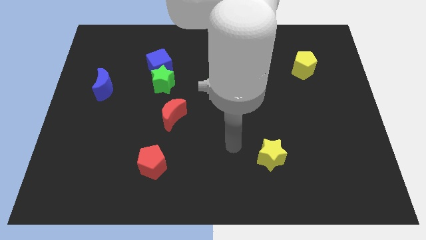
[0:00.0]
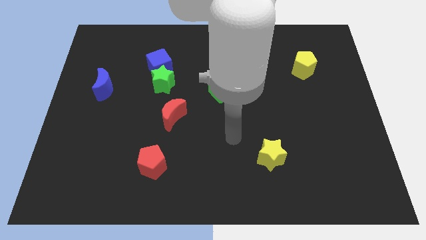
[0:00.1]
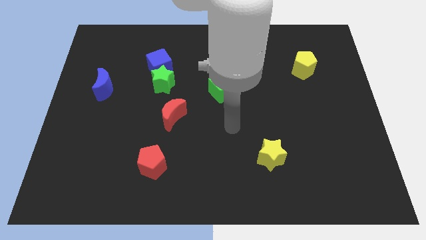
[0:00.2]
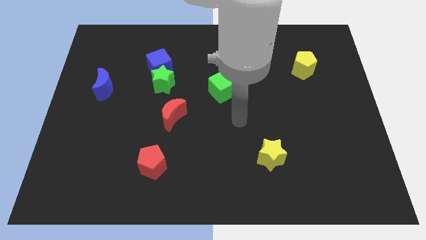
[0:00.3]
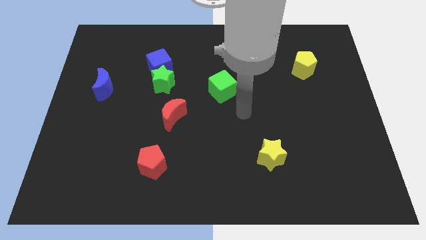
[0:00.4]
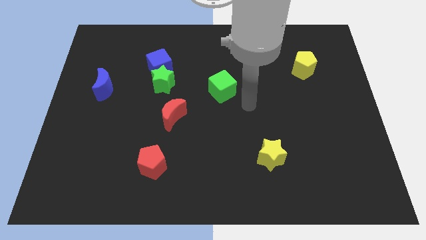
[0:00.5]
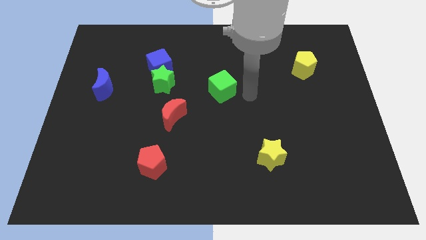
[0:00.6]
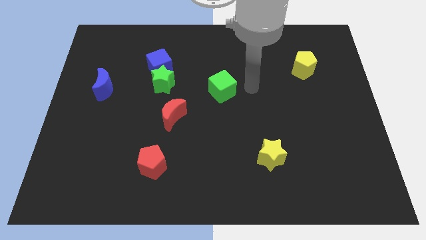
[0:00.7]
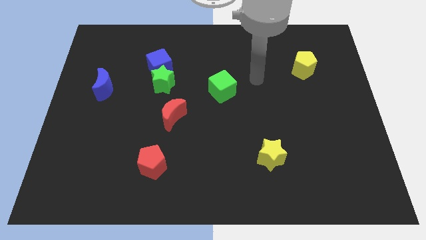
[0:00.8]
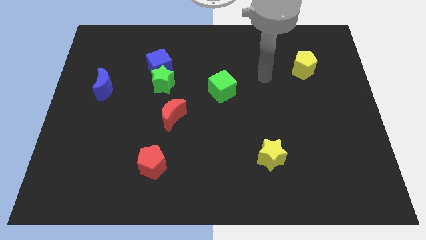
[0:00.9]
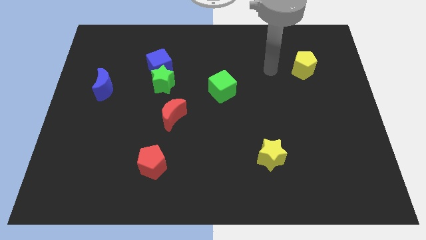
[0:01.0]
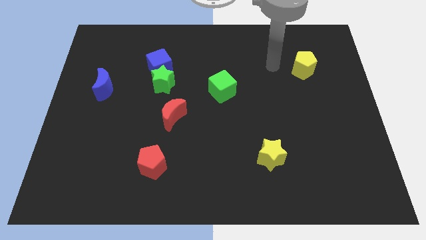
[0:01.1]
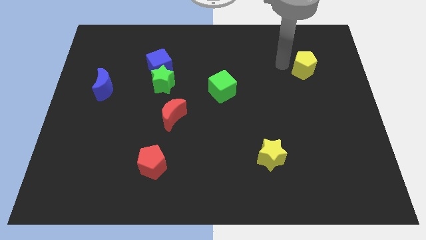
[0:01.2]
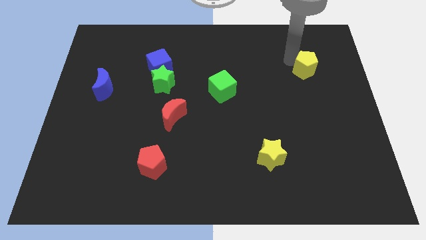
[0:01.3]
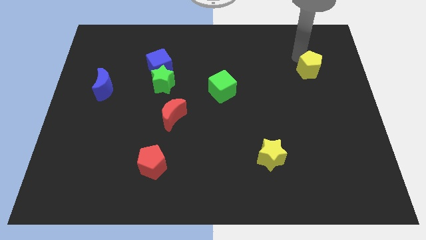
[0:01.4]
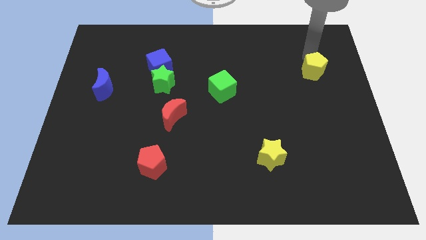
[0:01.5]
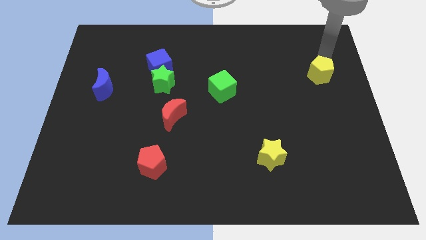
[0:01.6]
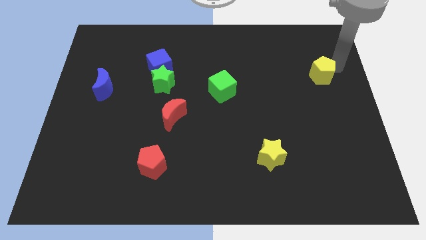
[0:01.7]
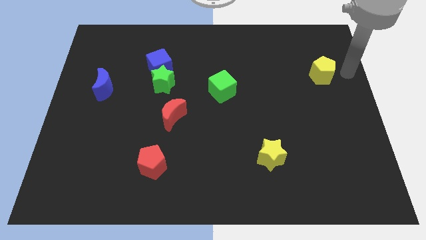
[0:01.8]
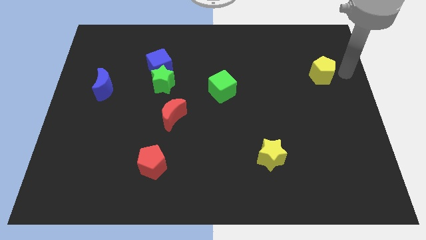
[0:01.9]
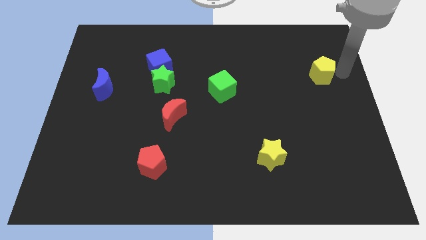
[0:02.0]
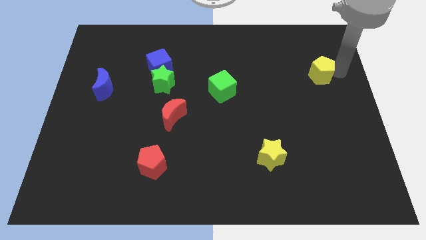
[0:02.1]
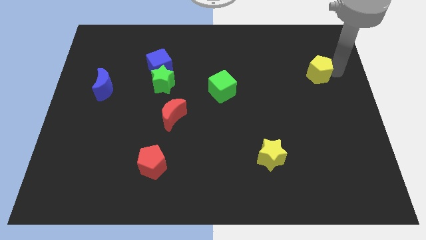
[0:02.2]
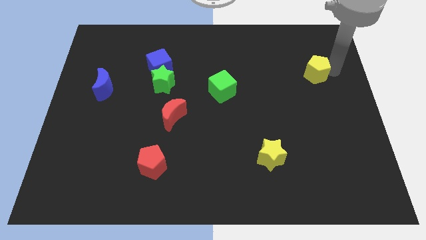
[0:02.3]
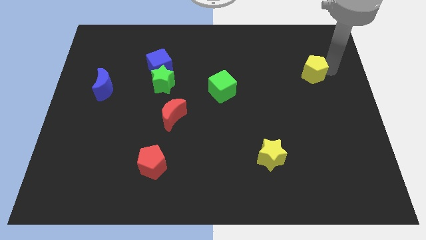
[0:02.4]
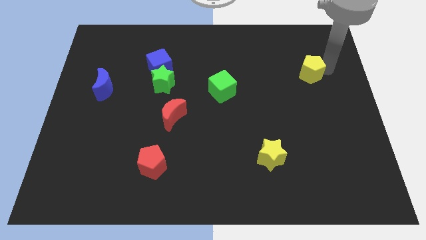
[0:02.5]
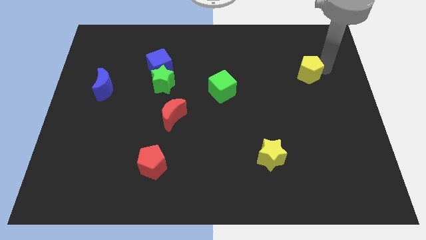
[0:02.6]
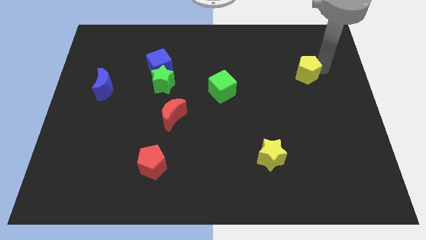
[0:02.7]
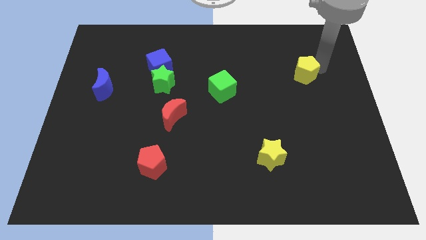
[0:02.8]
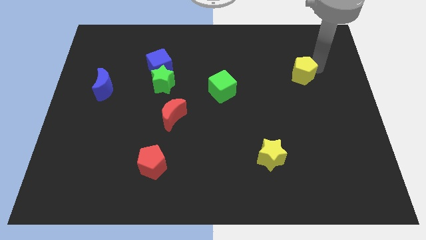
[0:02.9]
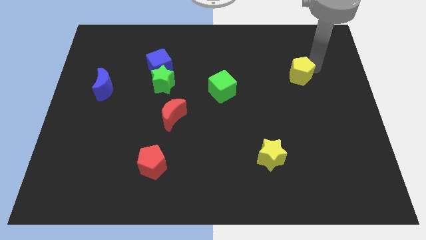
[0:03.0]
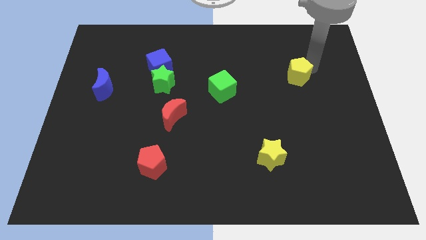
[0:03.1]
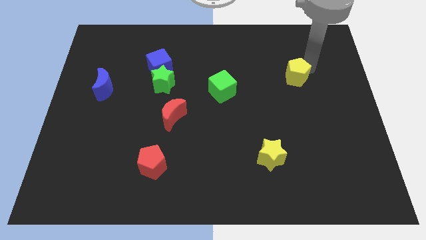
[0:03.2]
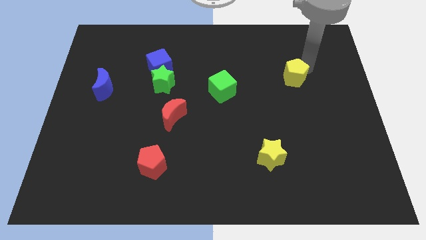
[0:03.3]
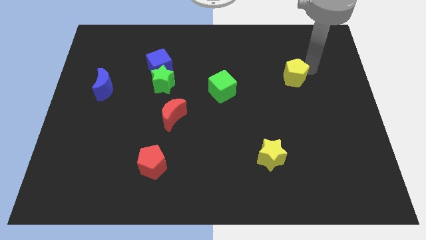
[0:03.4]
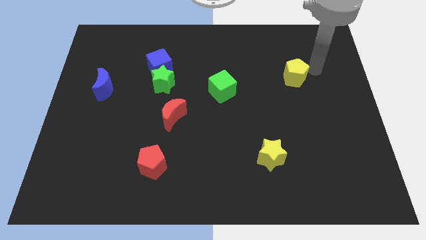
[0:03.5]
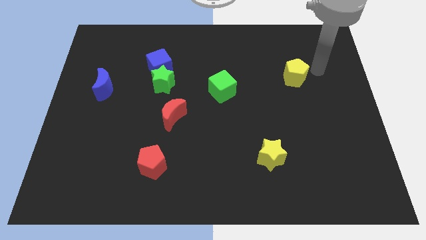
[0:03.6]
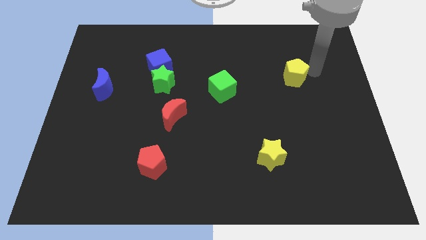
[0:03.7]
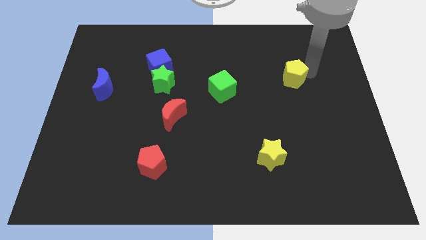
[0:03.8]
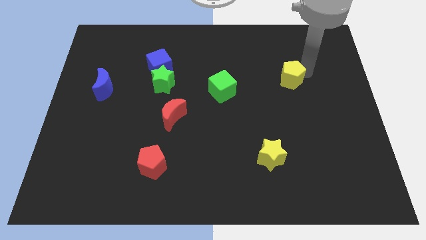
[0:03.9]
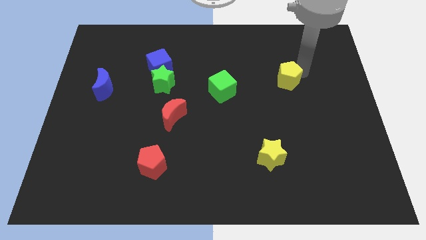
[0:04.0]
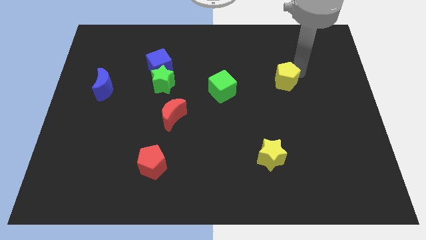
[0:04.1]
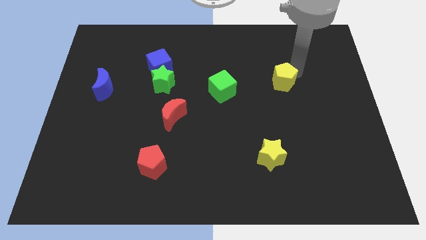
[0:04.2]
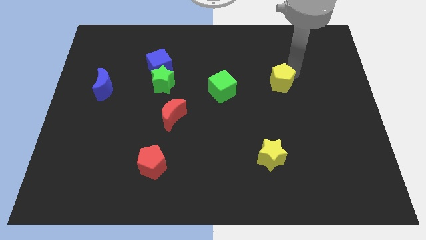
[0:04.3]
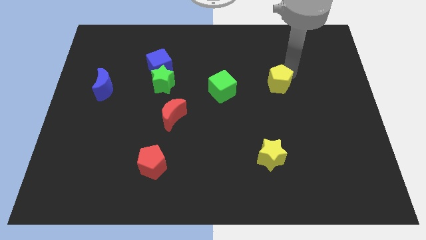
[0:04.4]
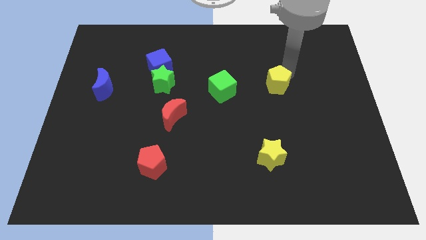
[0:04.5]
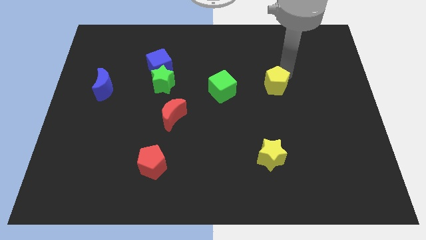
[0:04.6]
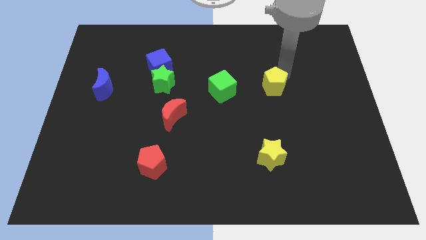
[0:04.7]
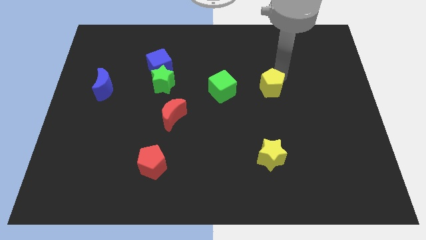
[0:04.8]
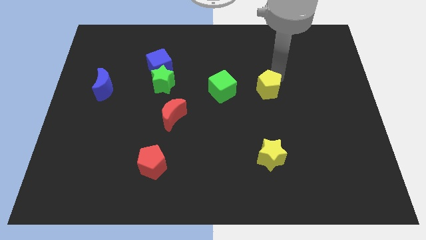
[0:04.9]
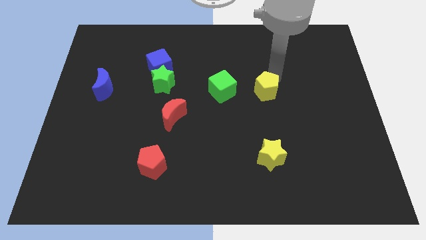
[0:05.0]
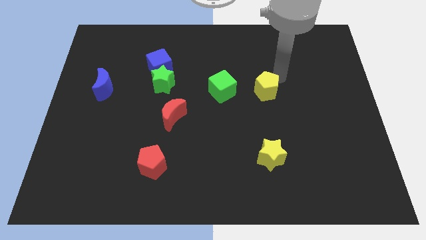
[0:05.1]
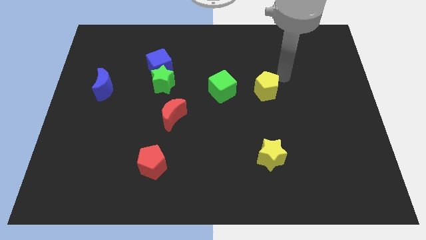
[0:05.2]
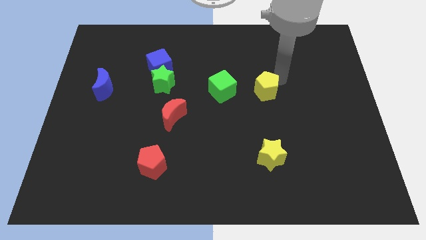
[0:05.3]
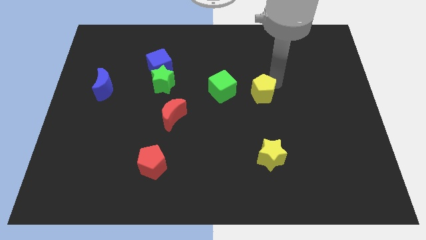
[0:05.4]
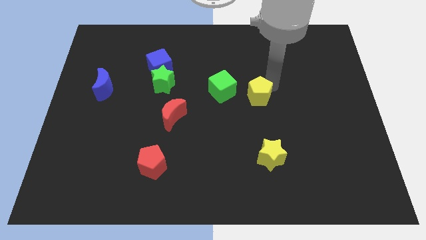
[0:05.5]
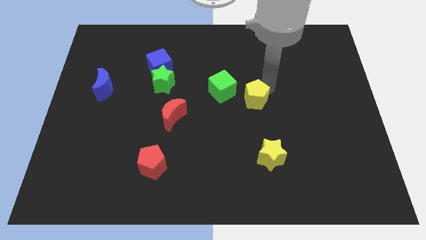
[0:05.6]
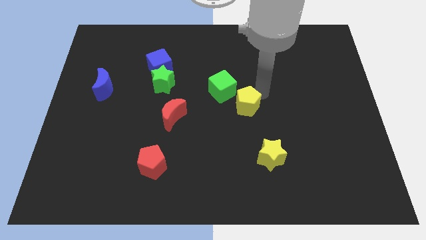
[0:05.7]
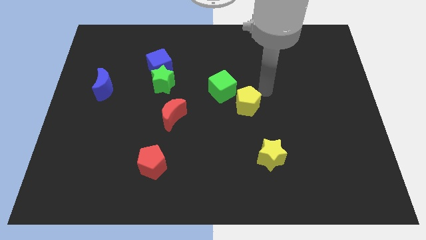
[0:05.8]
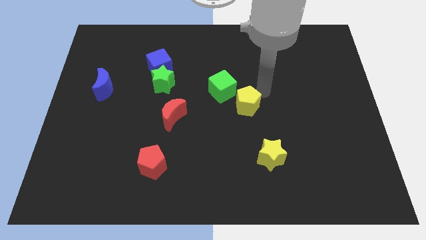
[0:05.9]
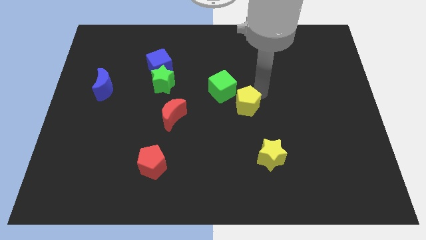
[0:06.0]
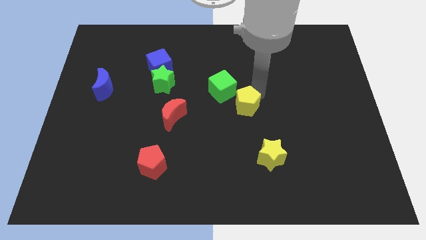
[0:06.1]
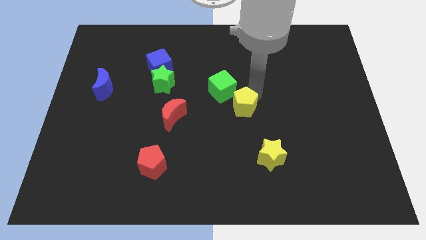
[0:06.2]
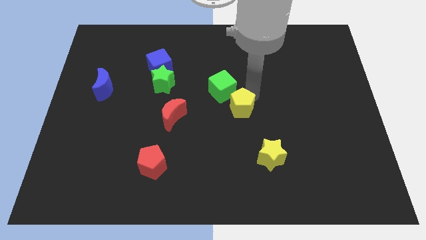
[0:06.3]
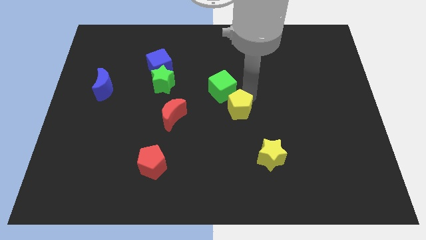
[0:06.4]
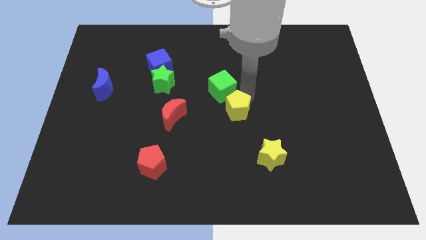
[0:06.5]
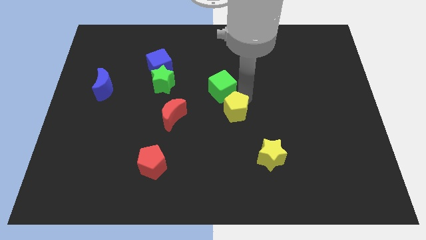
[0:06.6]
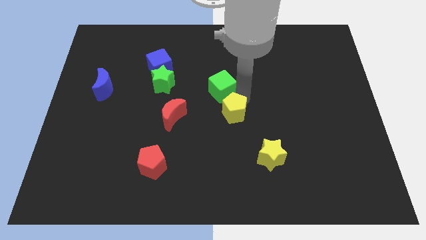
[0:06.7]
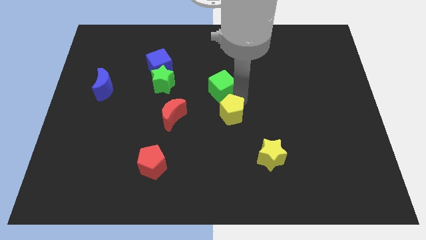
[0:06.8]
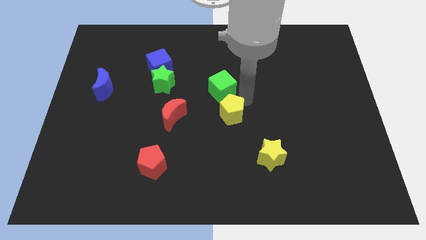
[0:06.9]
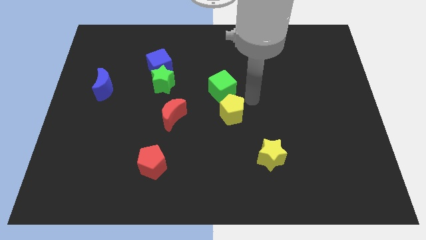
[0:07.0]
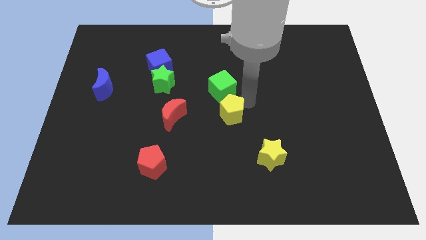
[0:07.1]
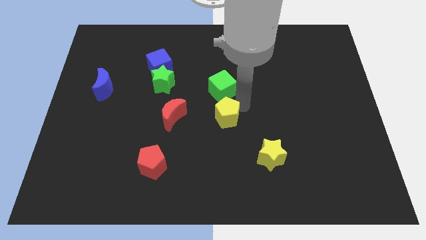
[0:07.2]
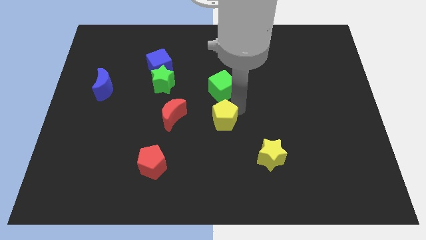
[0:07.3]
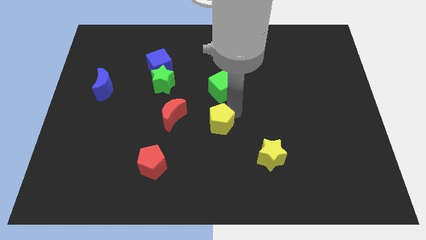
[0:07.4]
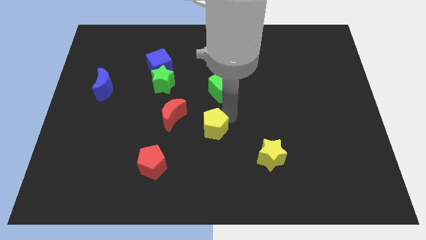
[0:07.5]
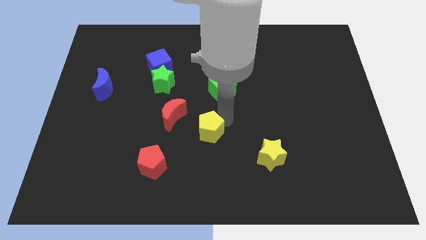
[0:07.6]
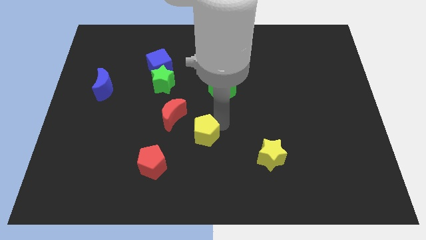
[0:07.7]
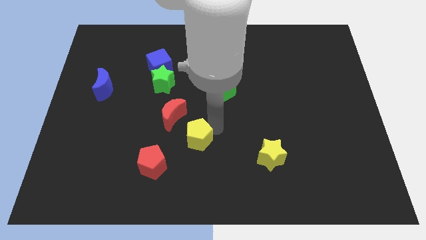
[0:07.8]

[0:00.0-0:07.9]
move the yellow pentagon to the top right side of the red pentagon

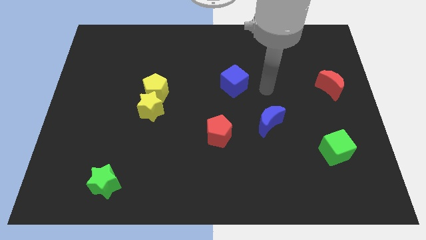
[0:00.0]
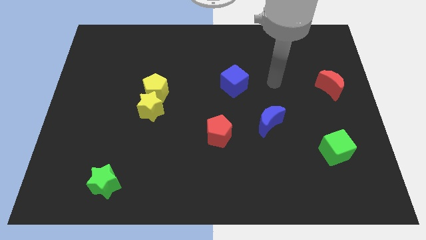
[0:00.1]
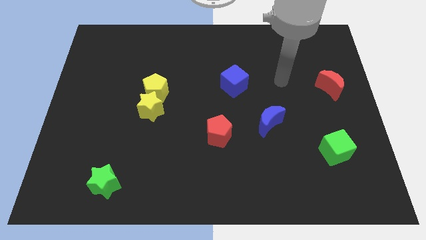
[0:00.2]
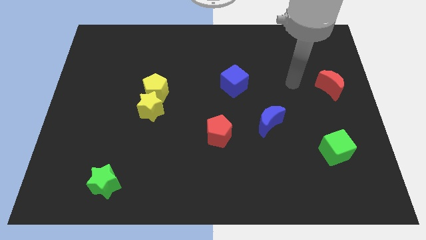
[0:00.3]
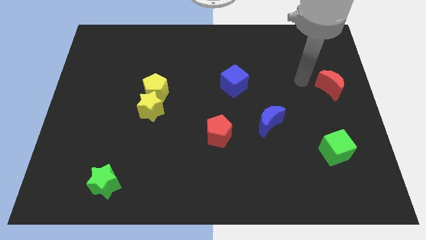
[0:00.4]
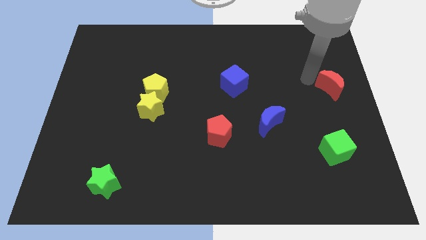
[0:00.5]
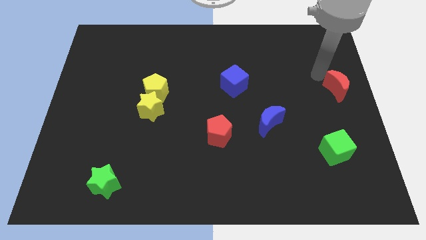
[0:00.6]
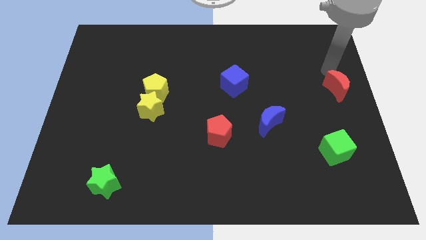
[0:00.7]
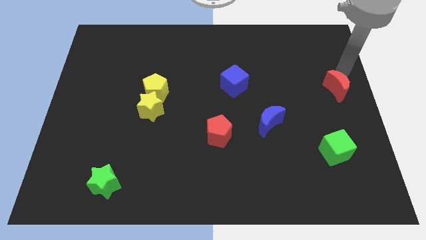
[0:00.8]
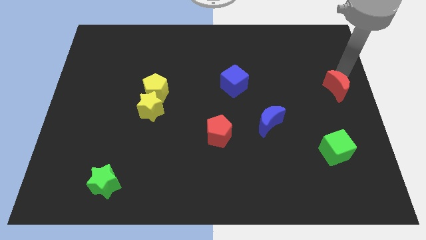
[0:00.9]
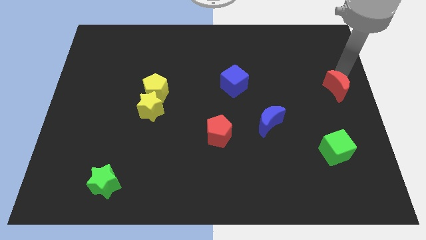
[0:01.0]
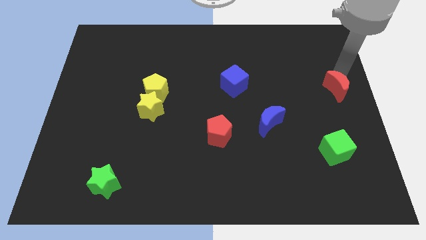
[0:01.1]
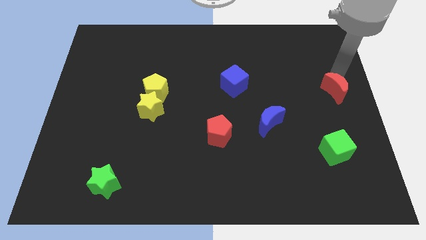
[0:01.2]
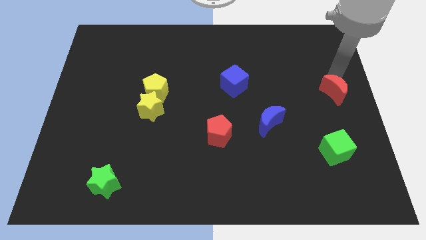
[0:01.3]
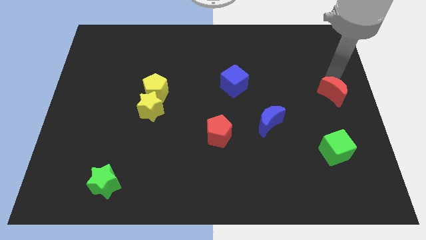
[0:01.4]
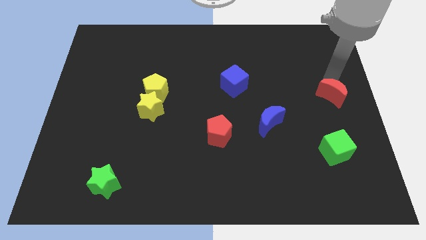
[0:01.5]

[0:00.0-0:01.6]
push the red moon above the green cube
